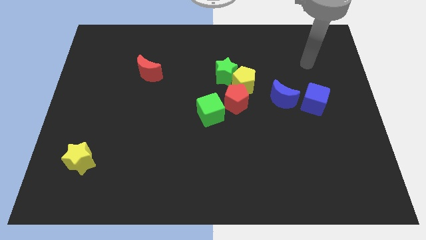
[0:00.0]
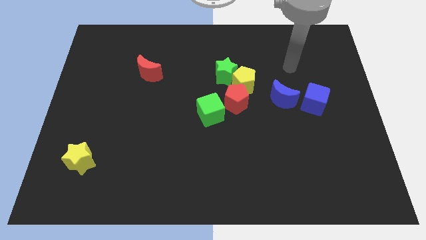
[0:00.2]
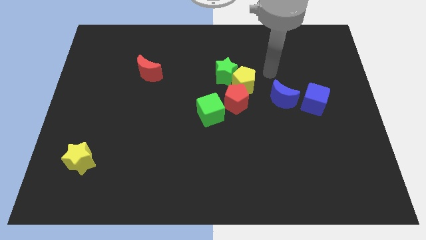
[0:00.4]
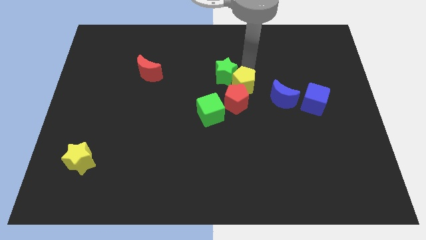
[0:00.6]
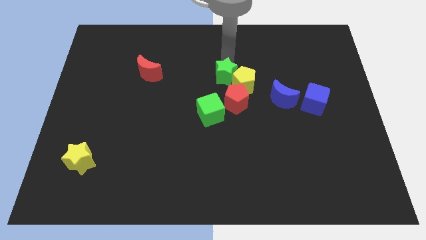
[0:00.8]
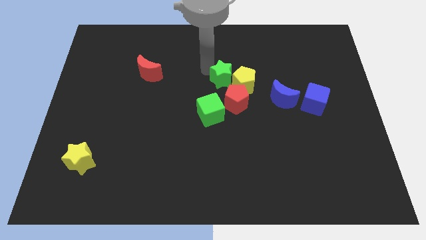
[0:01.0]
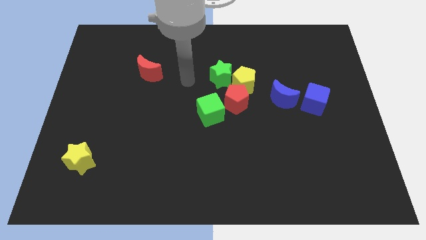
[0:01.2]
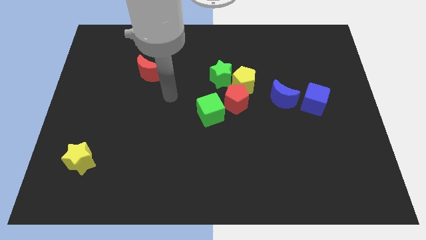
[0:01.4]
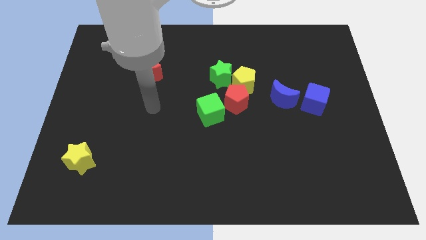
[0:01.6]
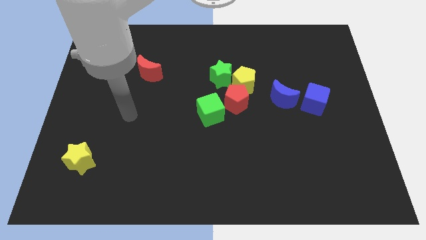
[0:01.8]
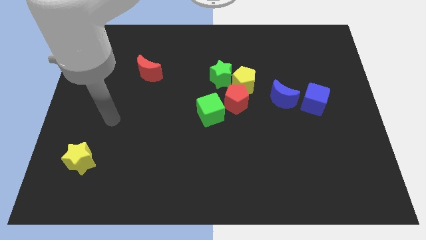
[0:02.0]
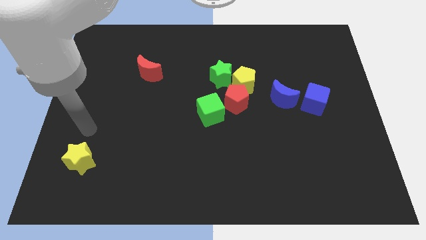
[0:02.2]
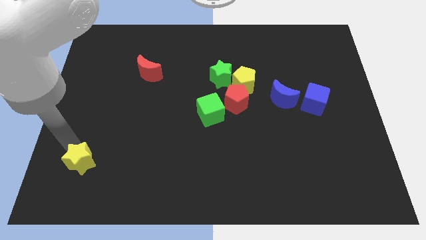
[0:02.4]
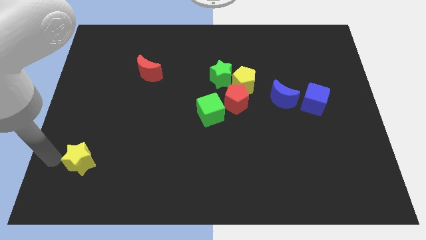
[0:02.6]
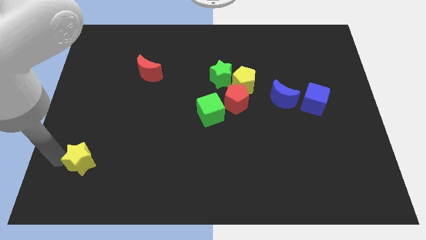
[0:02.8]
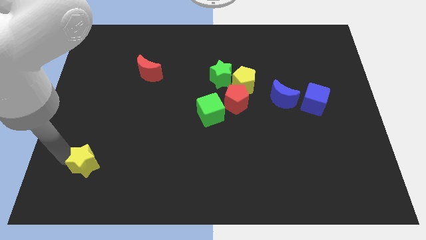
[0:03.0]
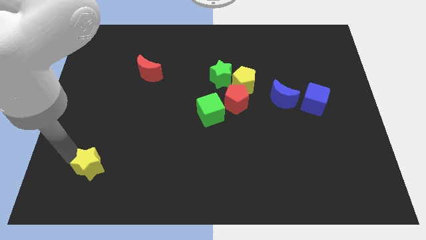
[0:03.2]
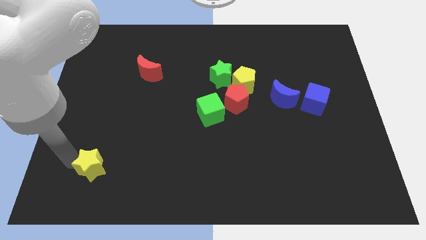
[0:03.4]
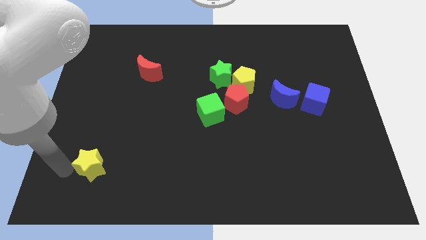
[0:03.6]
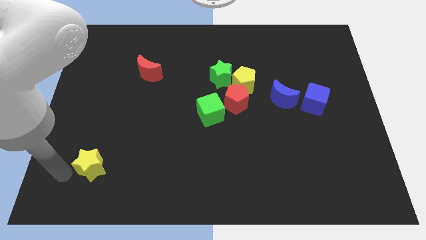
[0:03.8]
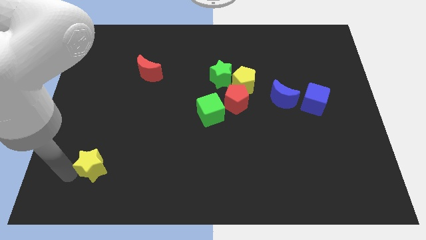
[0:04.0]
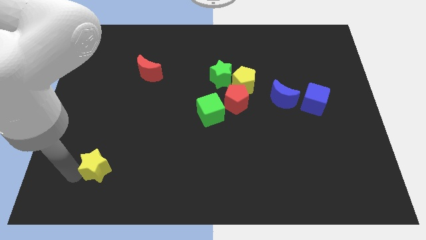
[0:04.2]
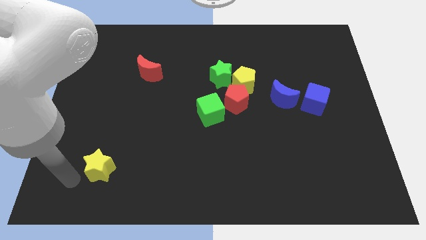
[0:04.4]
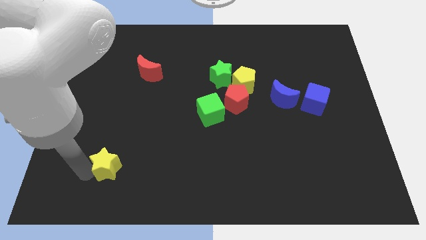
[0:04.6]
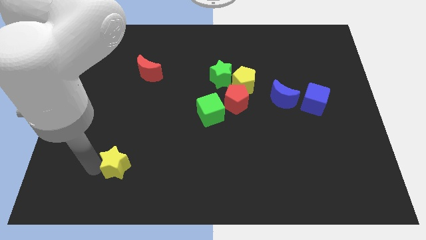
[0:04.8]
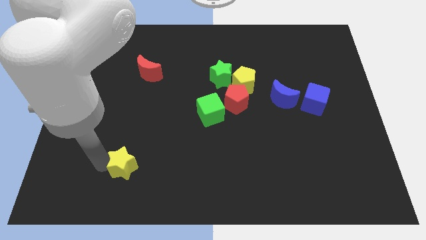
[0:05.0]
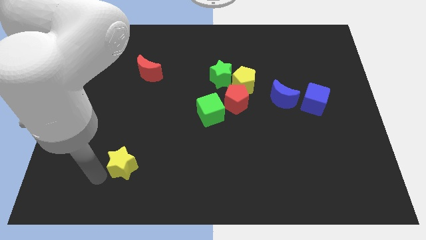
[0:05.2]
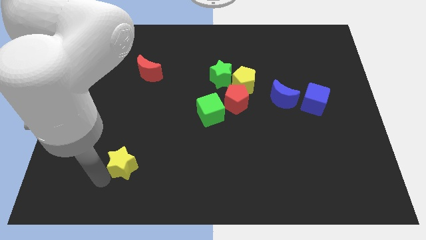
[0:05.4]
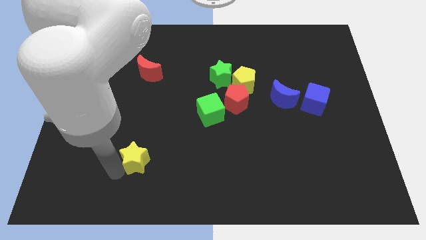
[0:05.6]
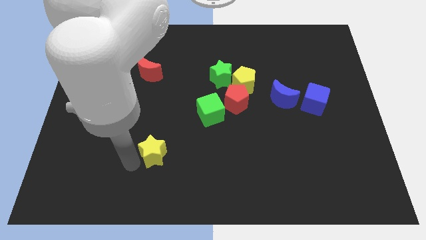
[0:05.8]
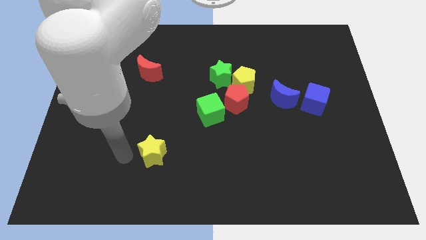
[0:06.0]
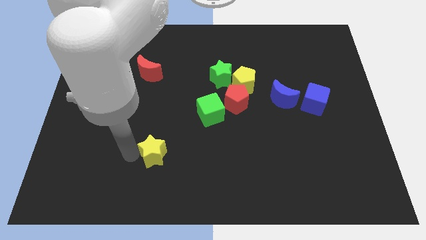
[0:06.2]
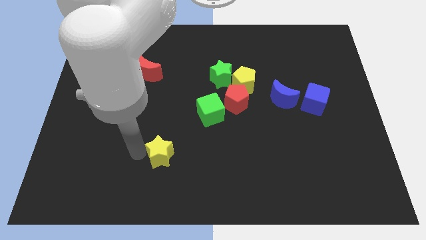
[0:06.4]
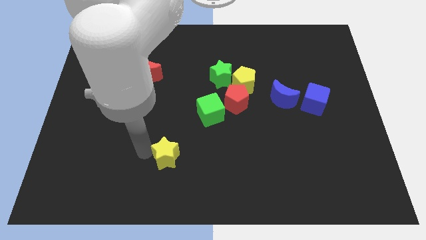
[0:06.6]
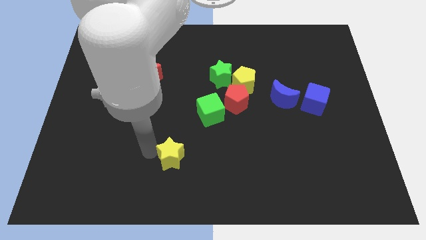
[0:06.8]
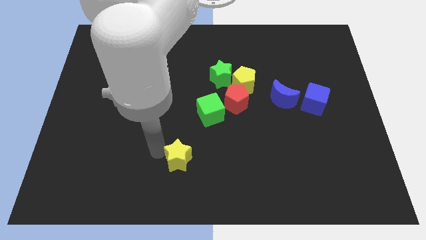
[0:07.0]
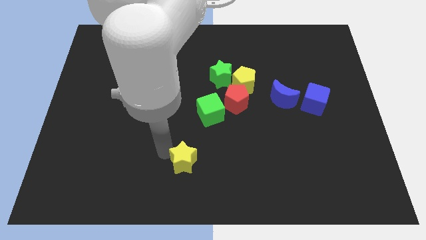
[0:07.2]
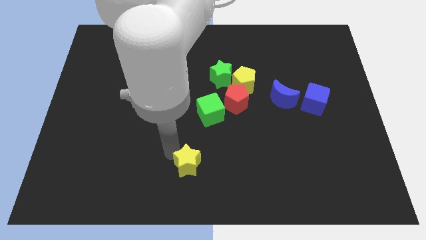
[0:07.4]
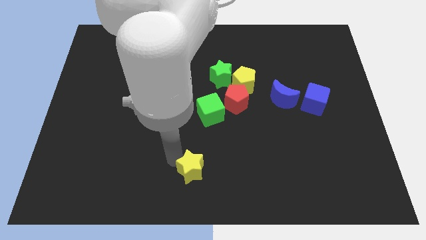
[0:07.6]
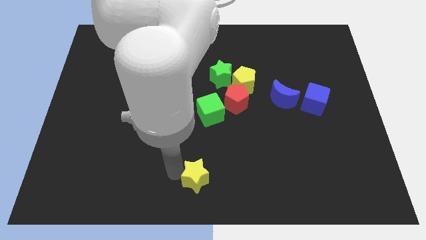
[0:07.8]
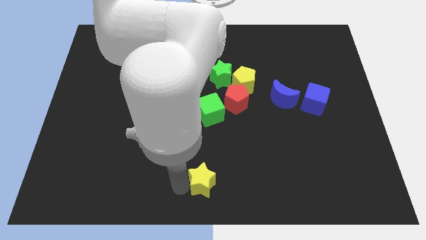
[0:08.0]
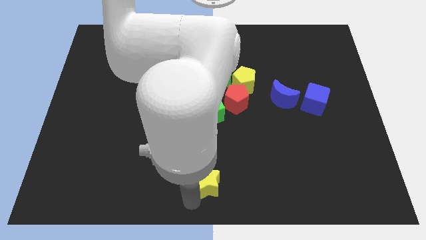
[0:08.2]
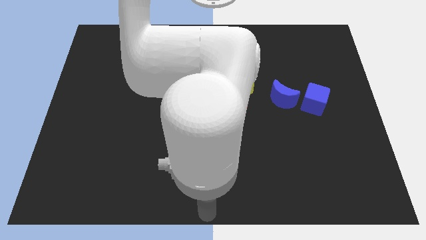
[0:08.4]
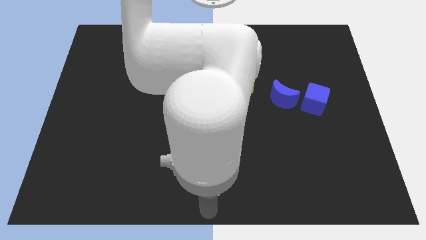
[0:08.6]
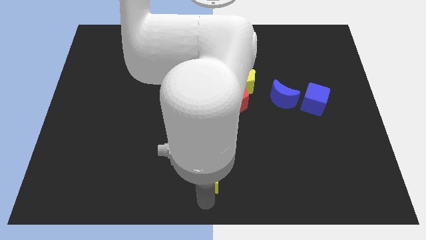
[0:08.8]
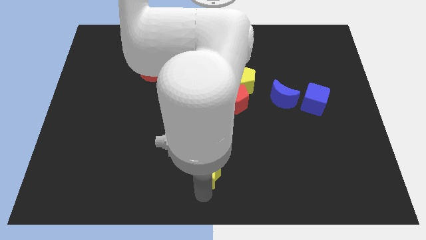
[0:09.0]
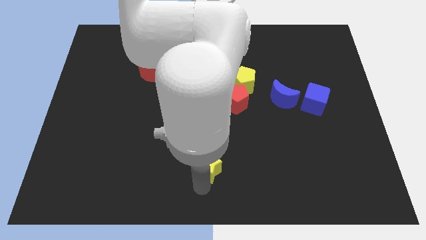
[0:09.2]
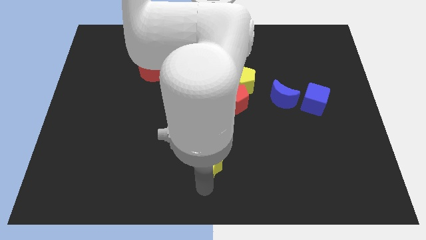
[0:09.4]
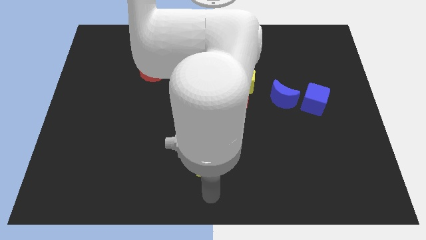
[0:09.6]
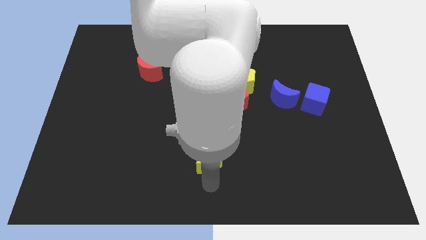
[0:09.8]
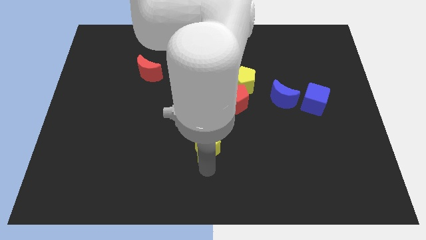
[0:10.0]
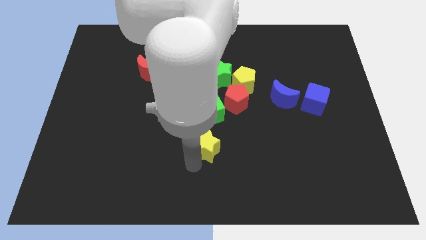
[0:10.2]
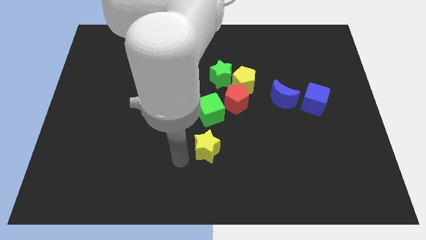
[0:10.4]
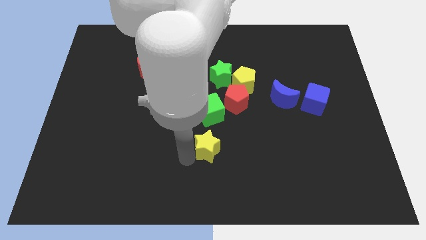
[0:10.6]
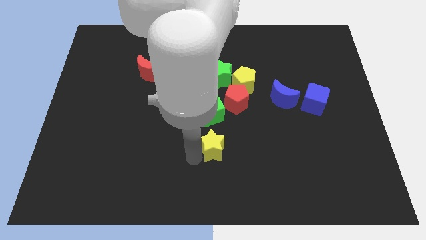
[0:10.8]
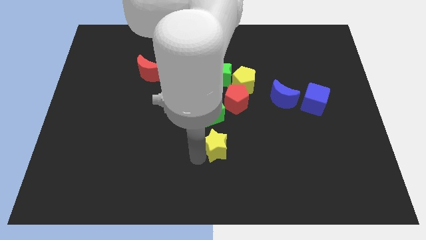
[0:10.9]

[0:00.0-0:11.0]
move the yellow star to the bottom side of the red pentagon
